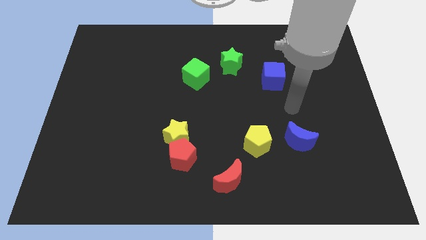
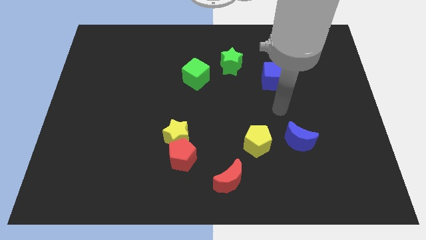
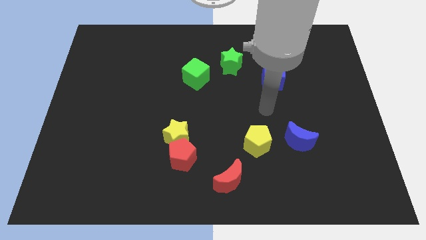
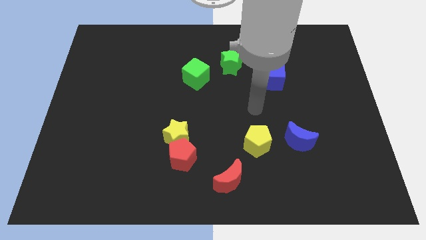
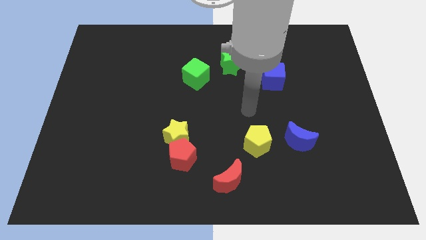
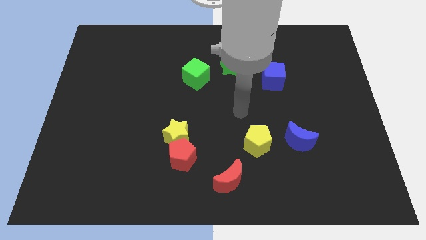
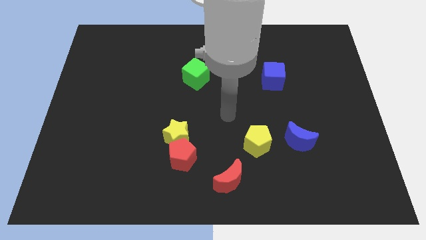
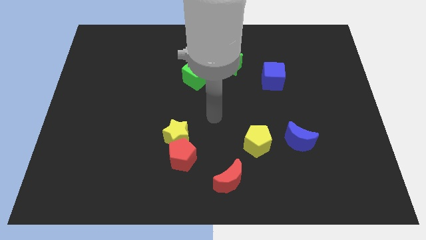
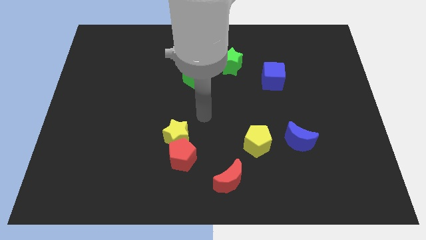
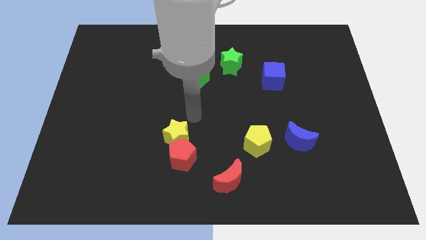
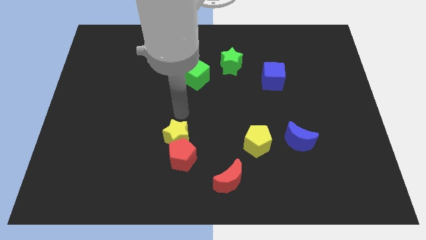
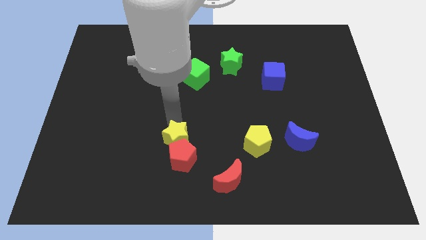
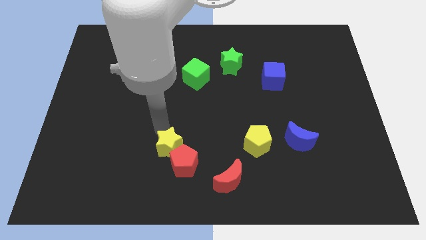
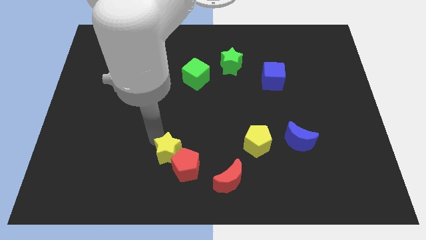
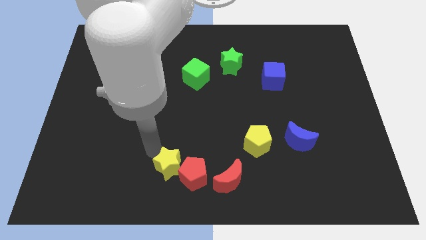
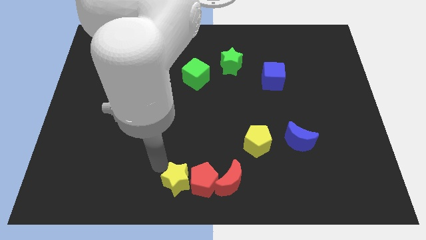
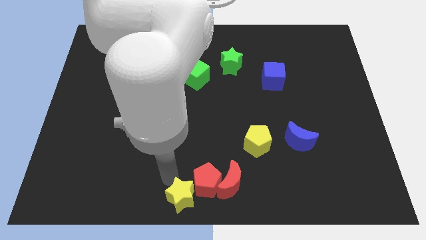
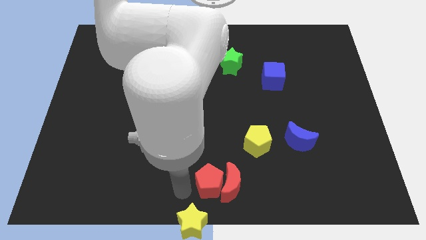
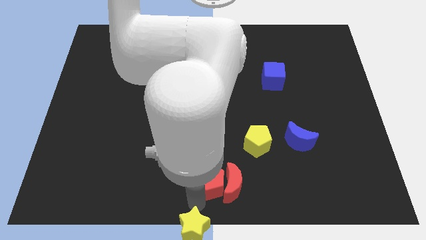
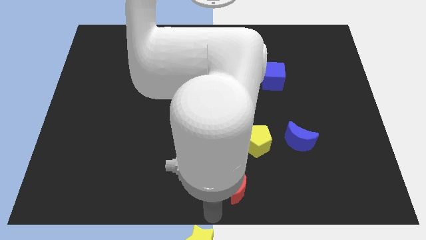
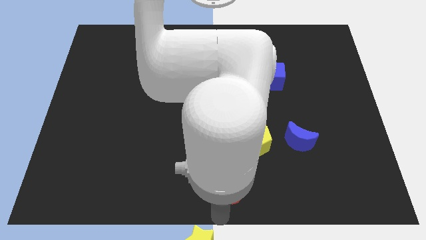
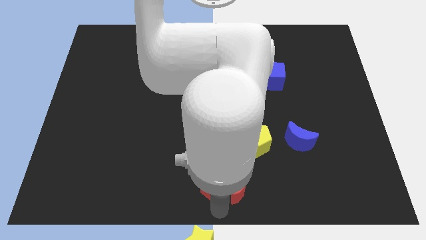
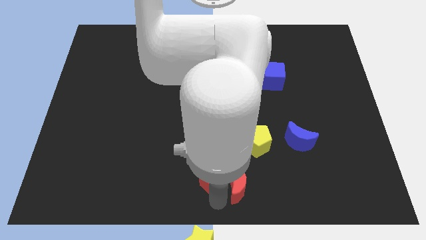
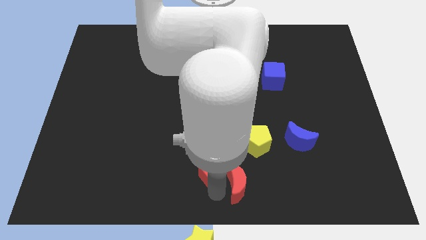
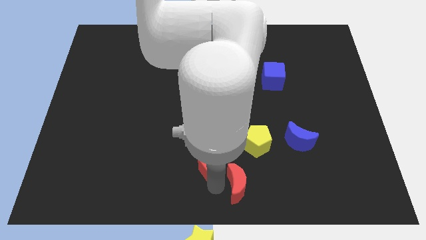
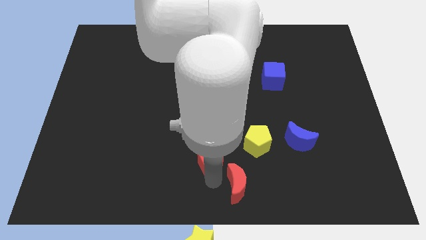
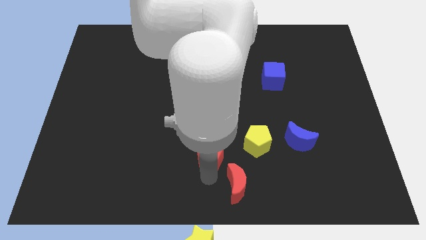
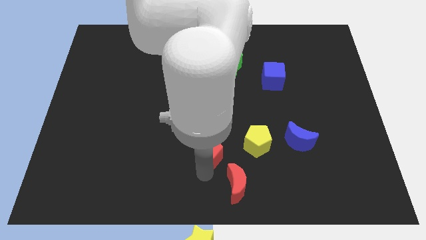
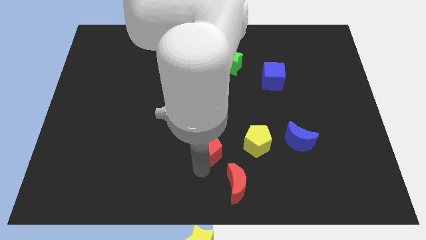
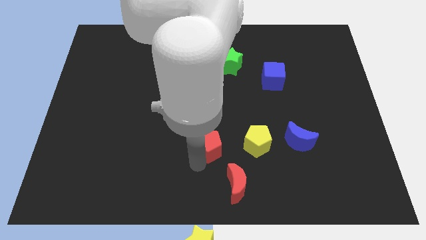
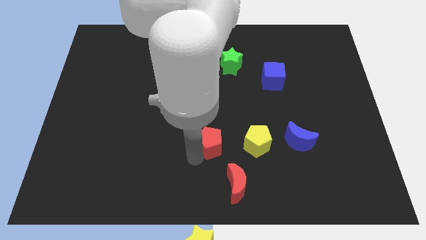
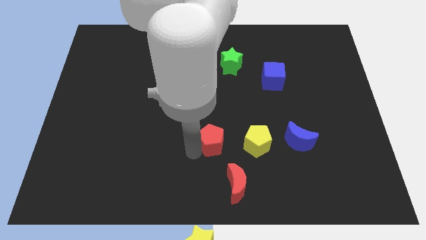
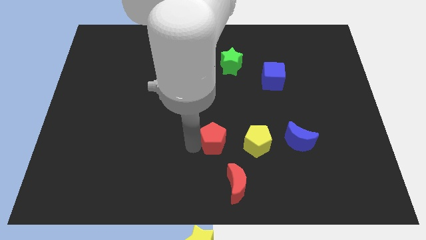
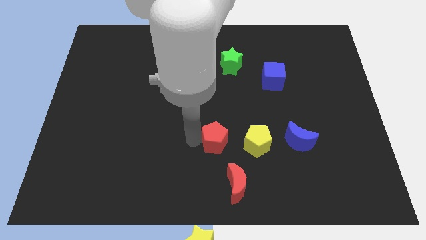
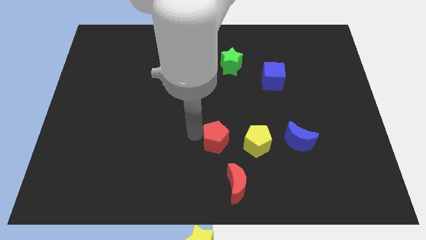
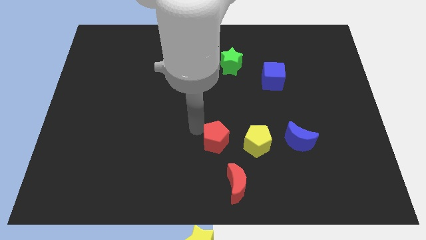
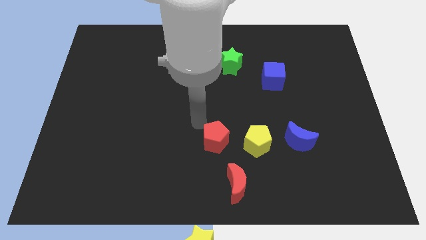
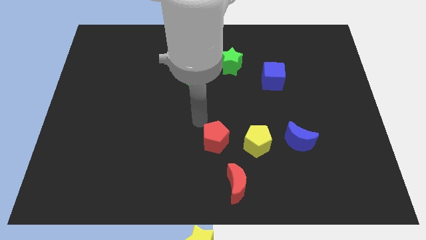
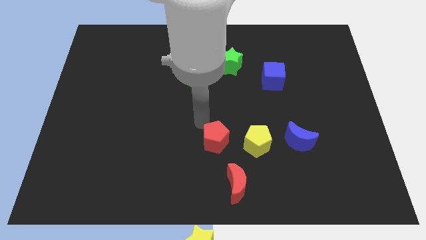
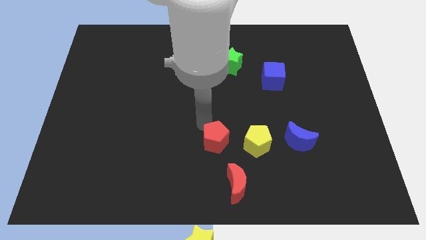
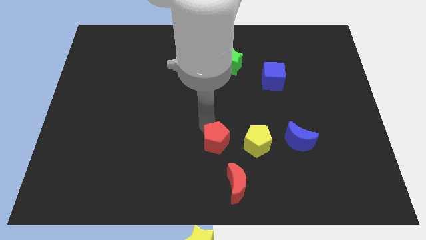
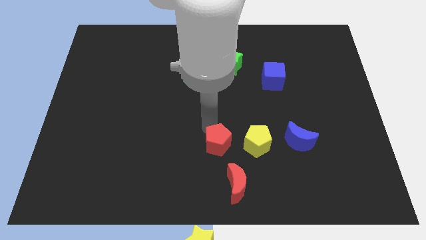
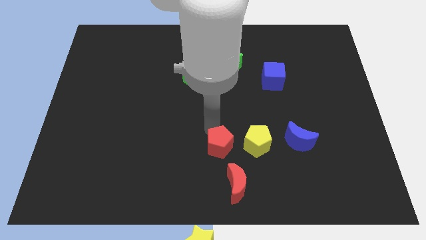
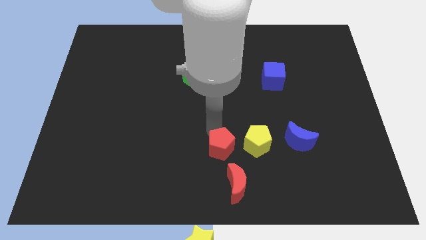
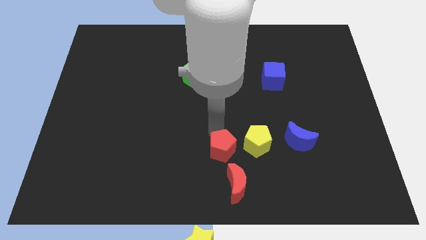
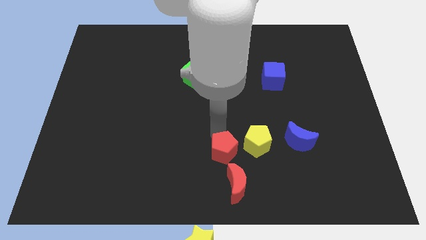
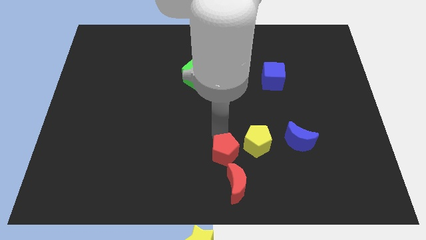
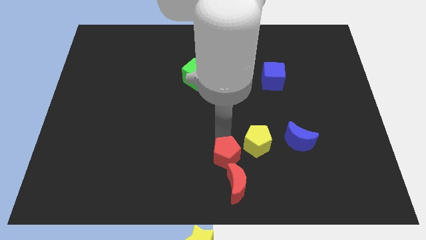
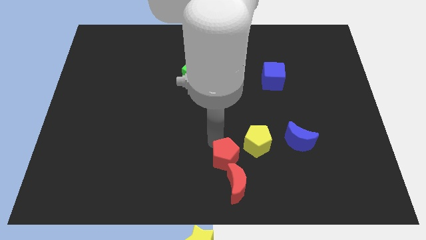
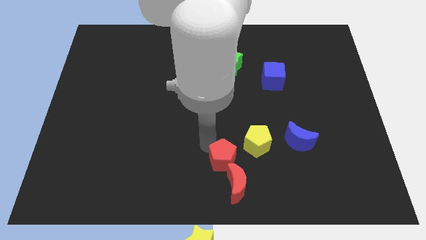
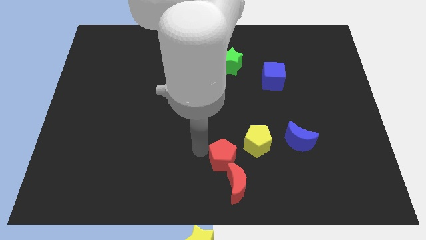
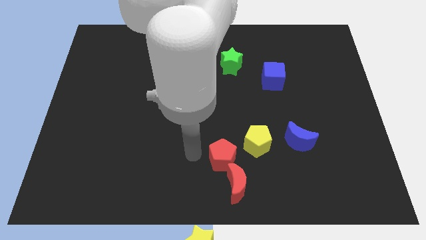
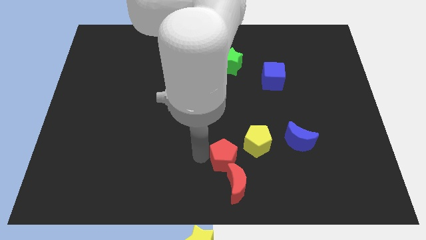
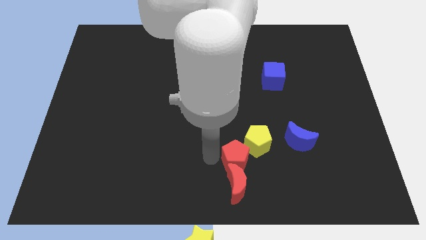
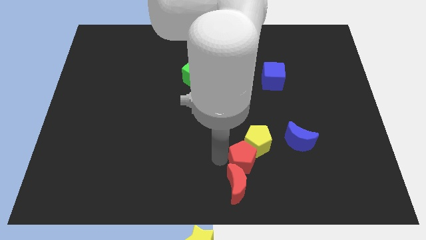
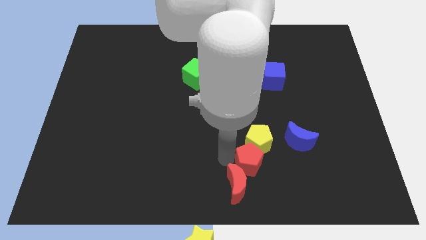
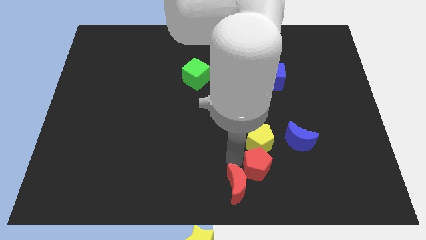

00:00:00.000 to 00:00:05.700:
slide the red pentagon diagonally down and to the right of the yellow pentagon

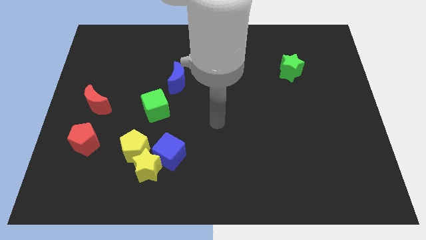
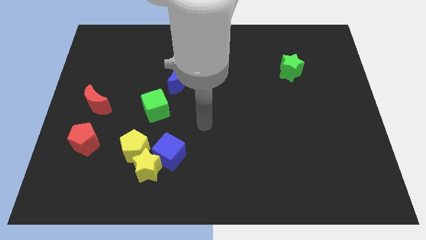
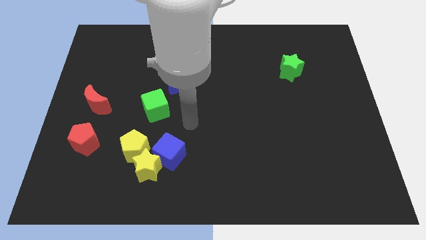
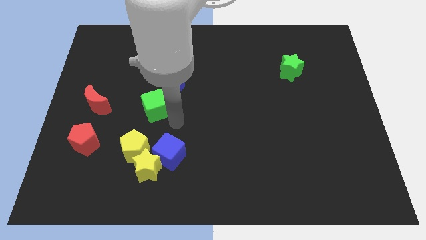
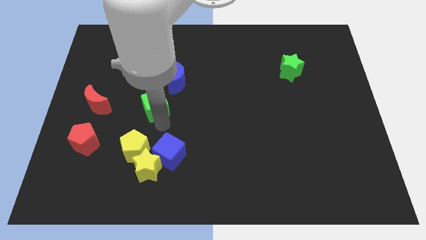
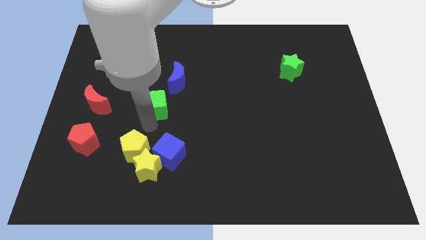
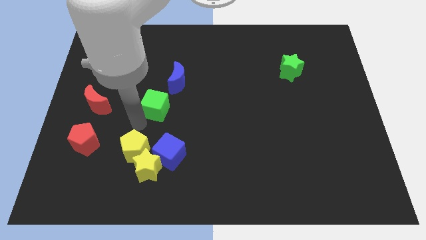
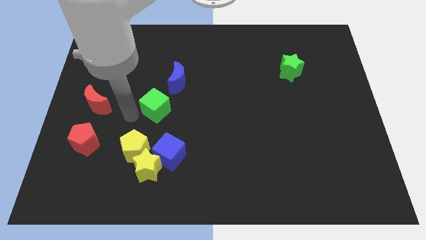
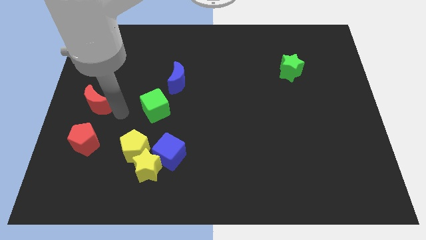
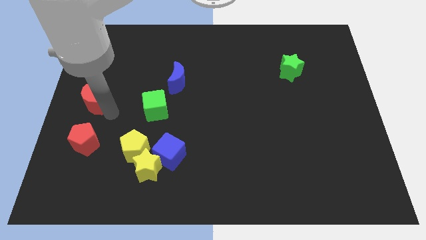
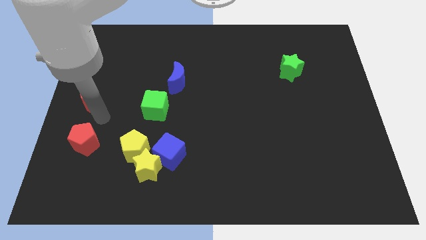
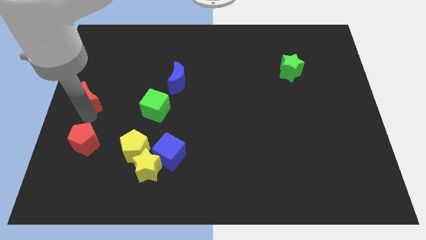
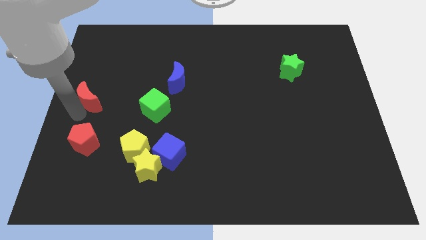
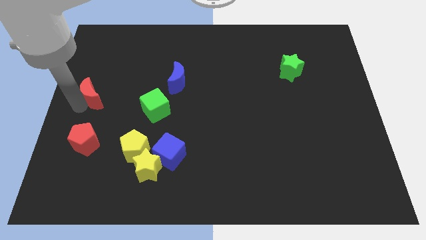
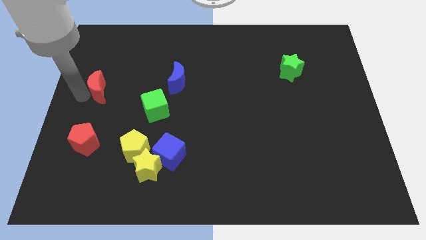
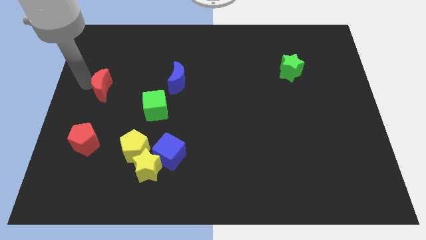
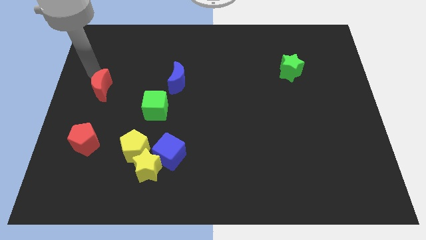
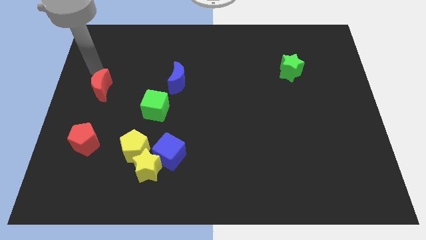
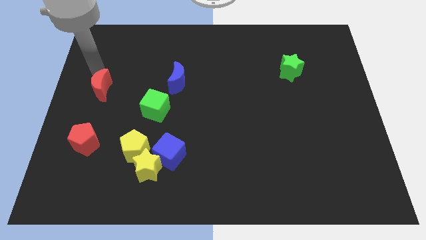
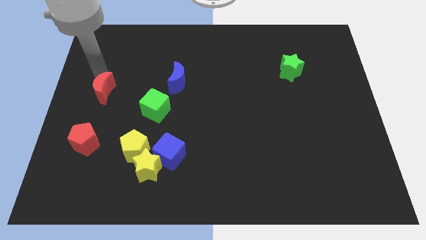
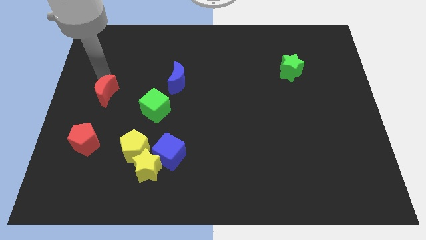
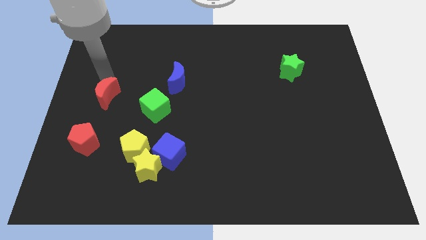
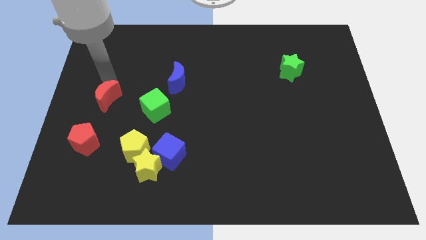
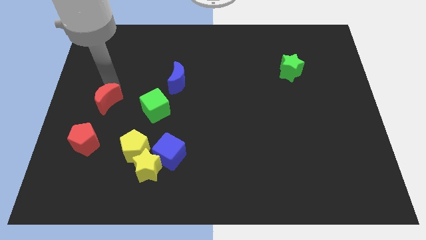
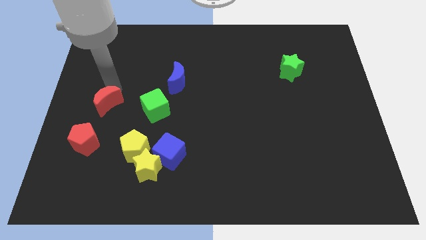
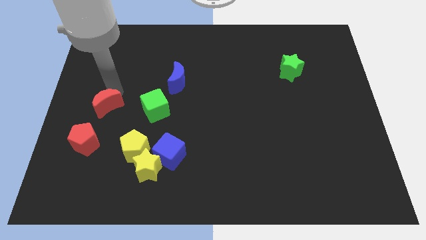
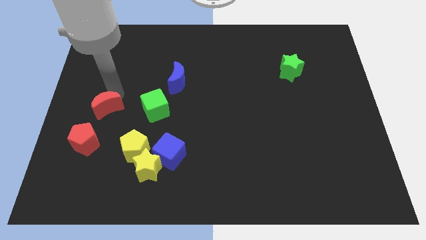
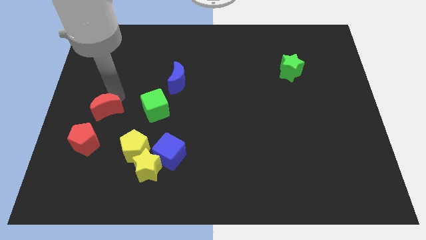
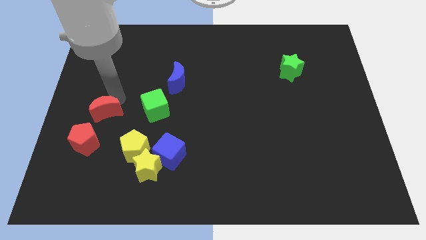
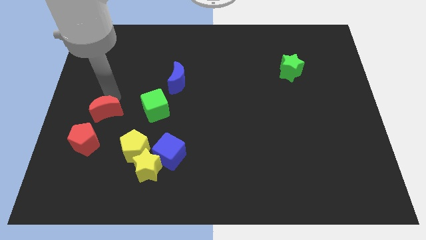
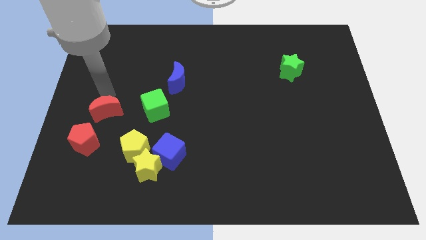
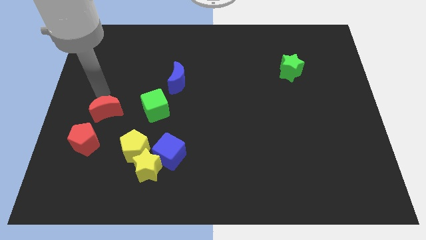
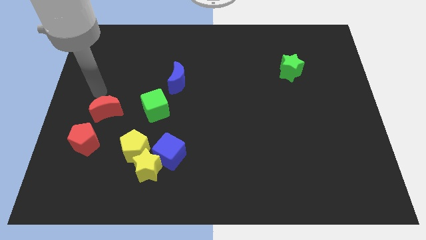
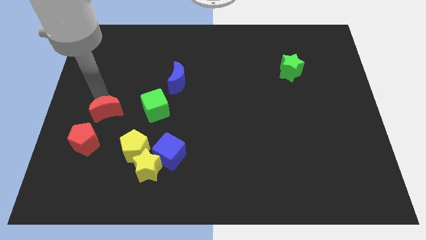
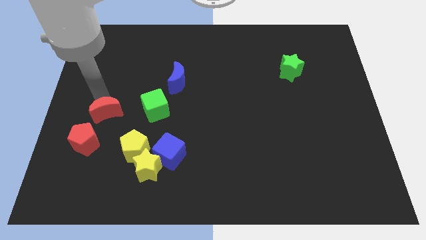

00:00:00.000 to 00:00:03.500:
move the red moon to the top left of the yellow pentagon
